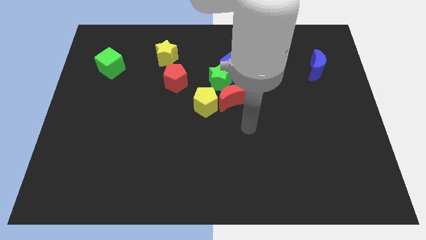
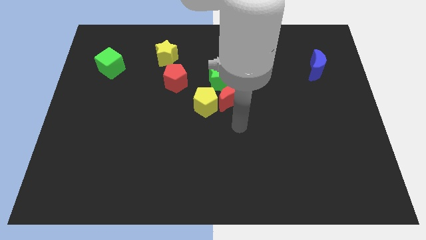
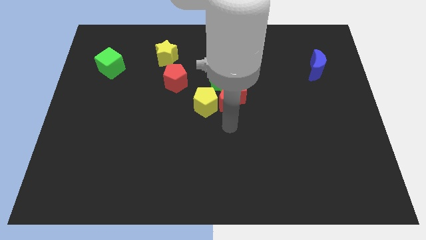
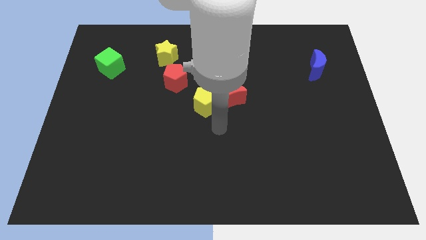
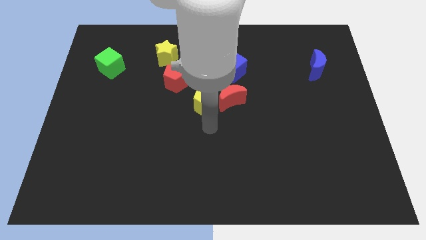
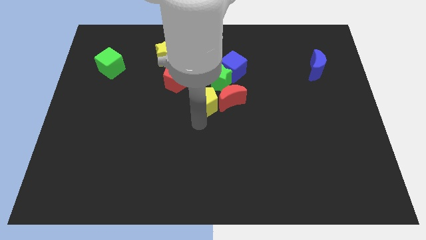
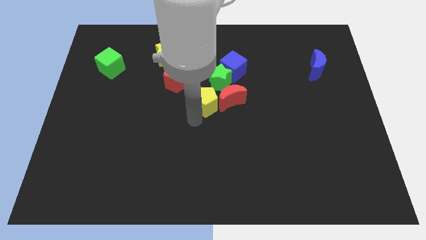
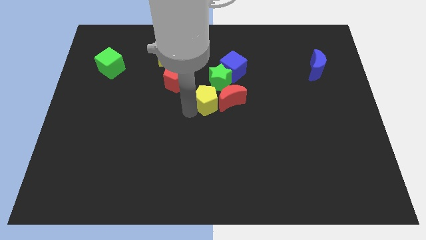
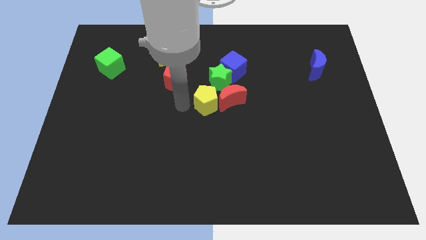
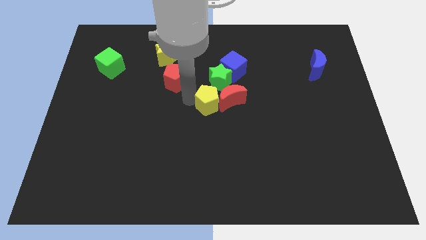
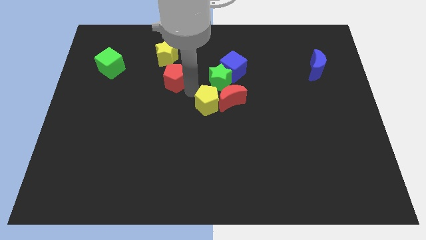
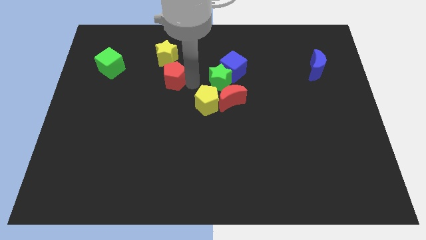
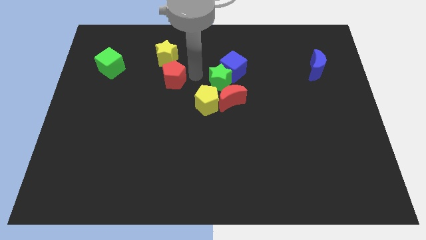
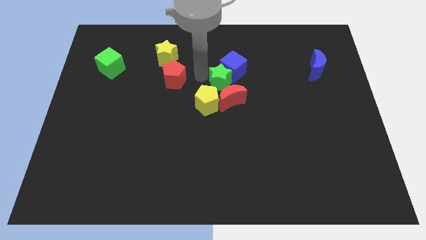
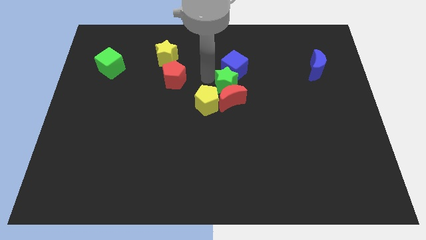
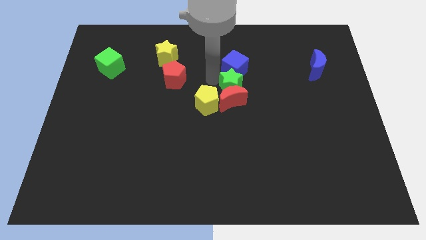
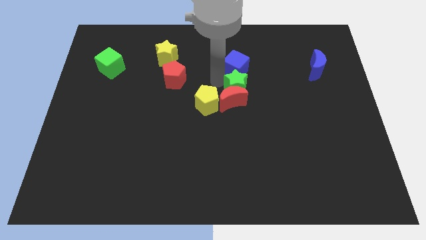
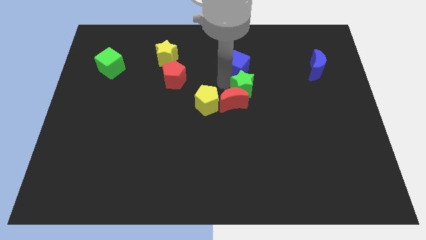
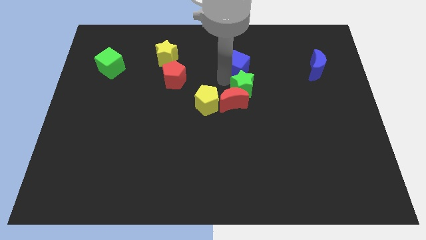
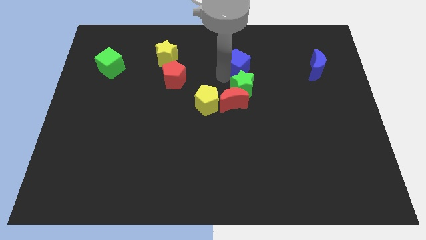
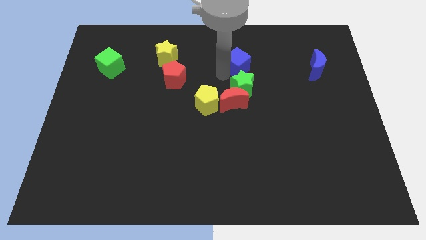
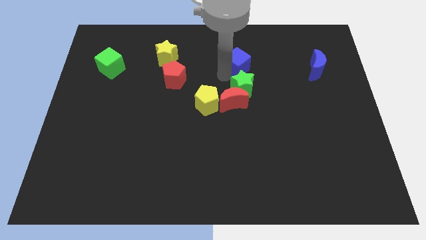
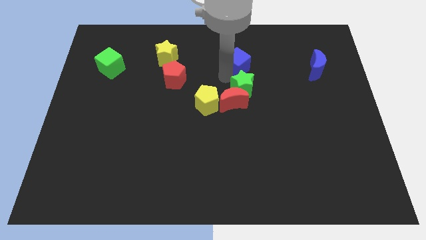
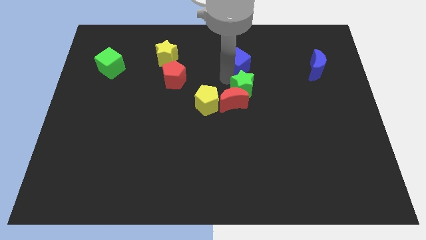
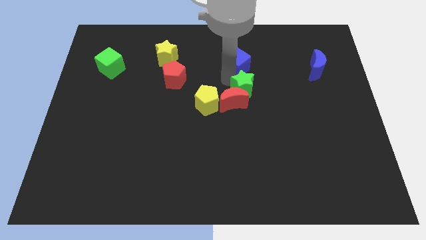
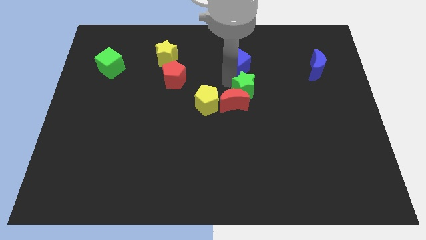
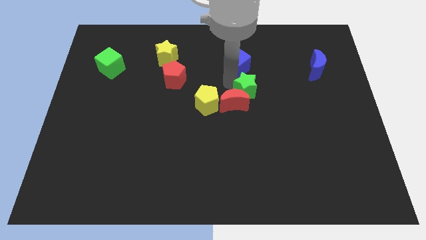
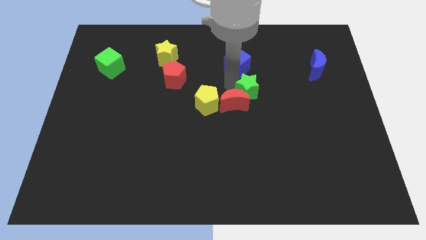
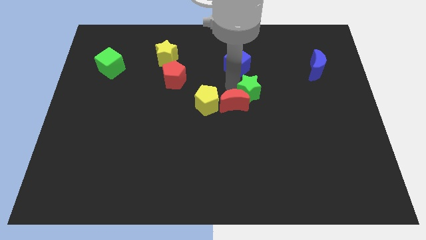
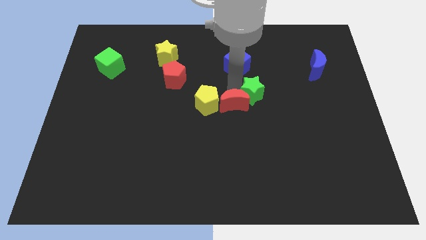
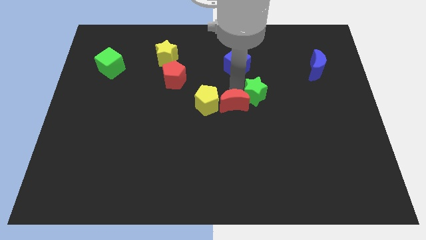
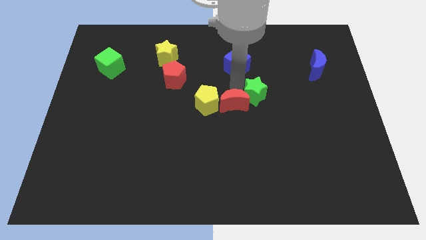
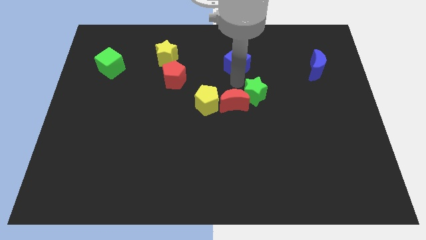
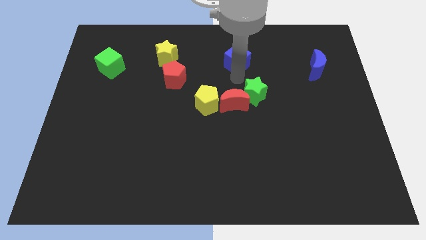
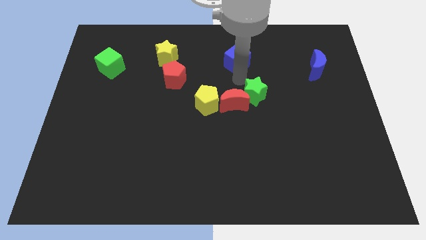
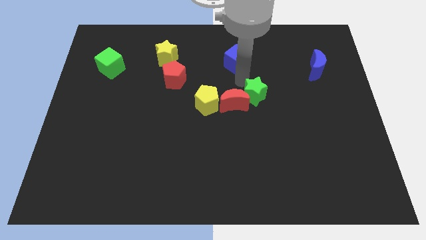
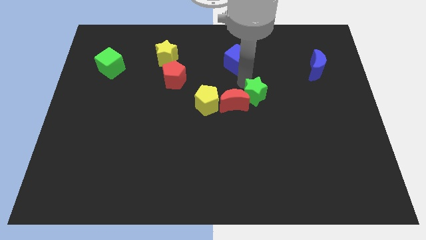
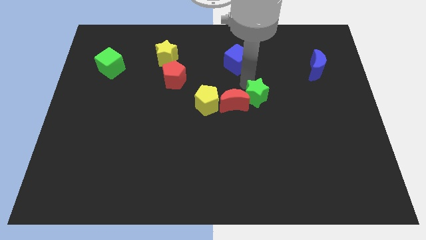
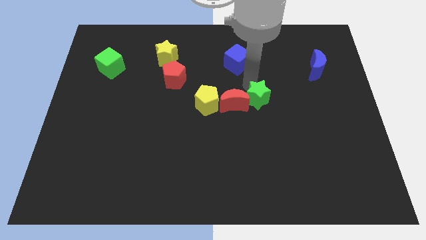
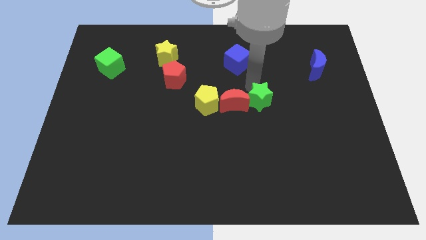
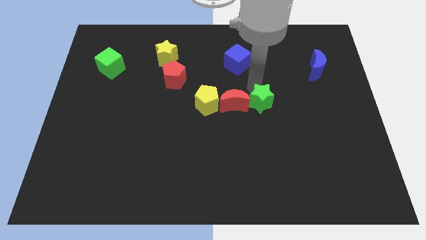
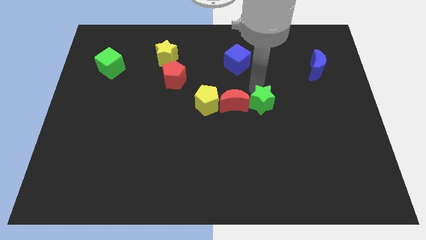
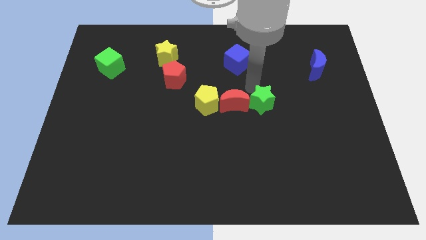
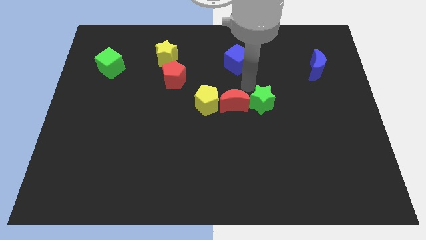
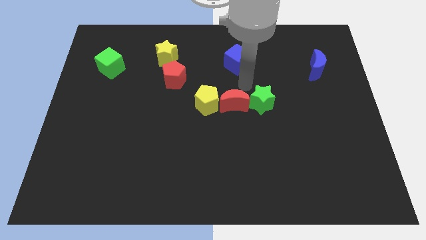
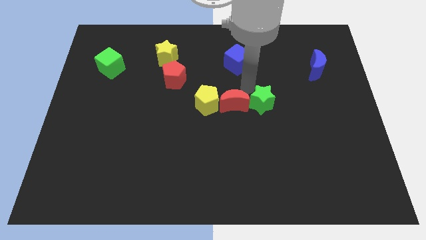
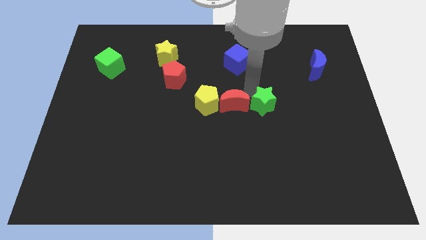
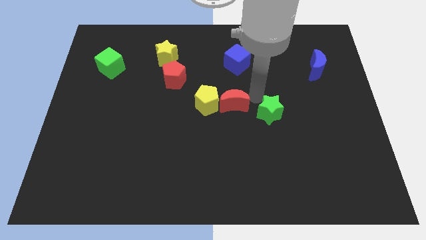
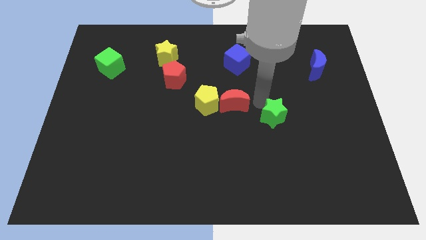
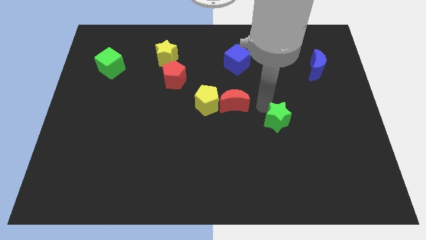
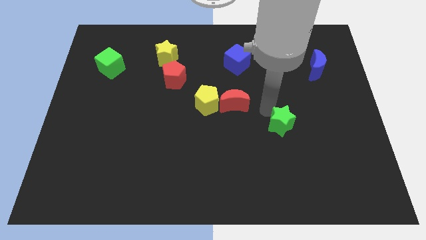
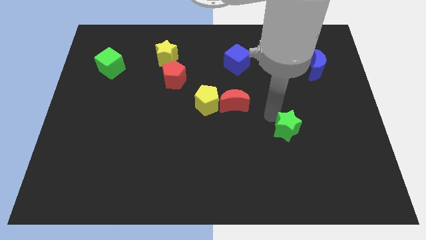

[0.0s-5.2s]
move the green star downwards and then right

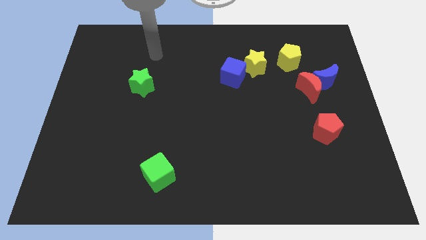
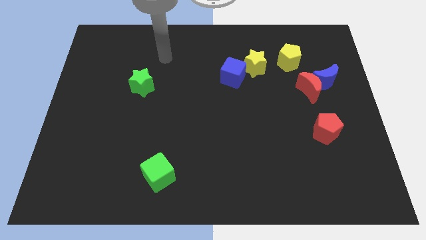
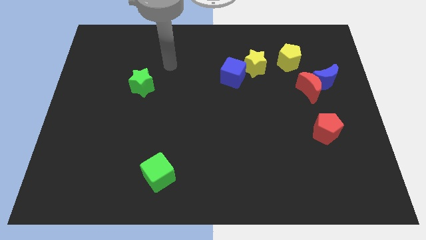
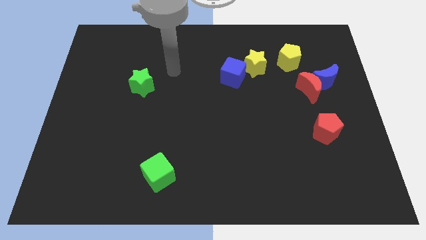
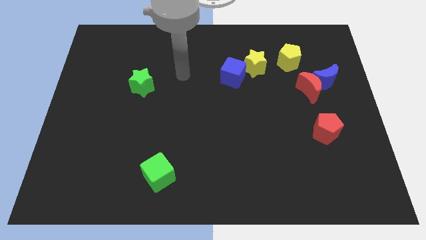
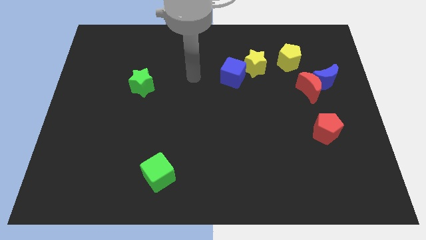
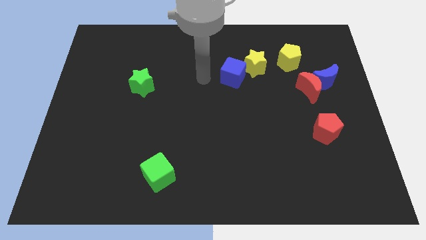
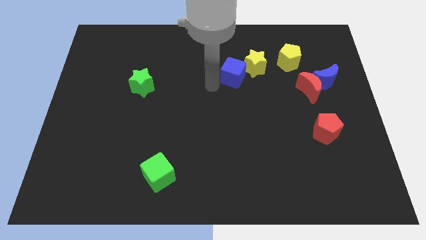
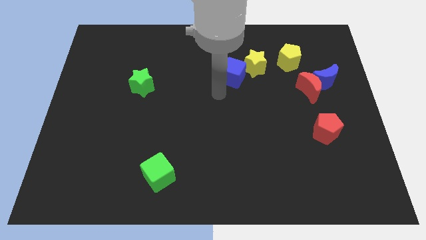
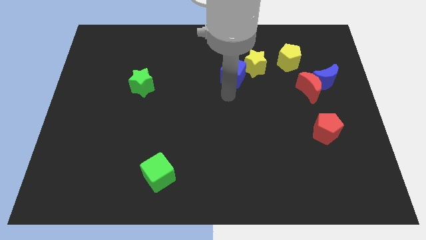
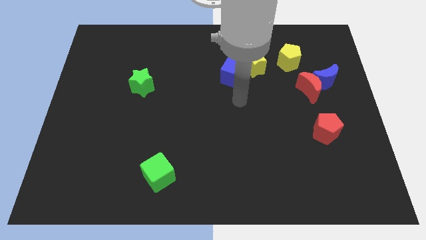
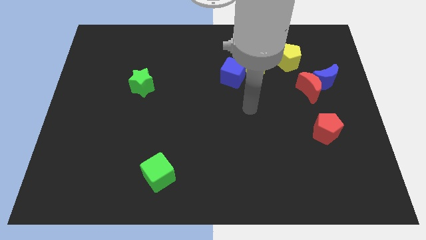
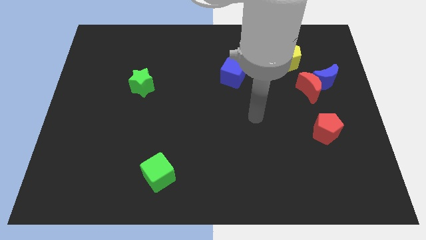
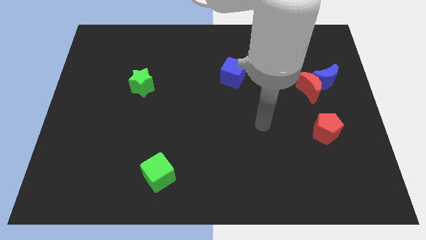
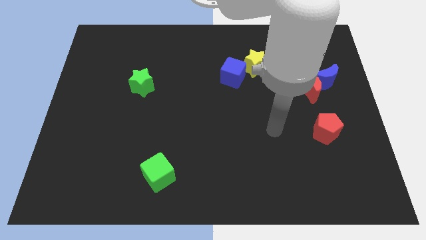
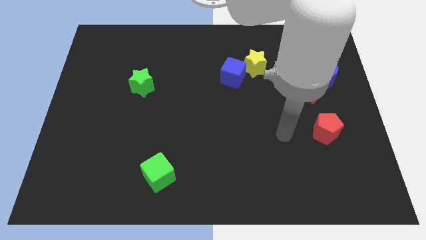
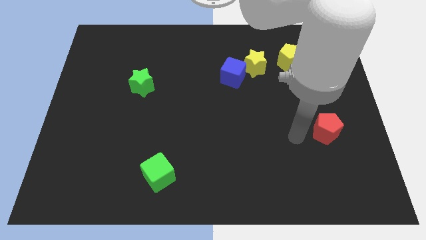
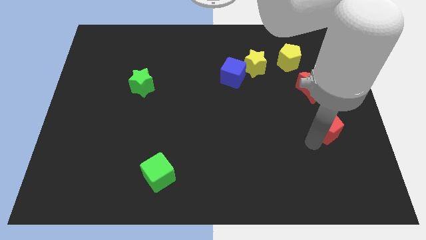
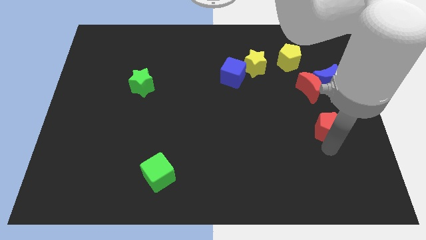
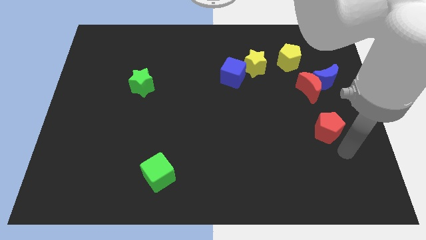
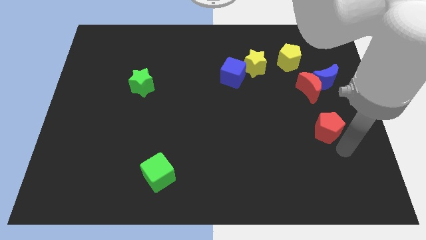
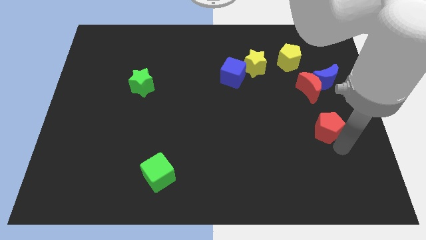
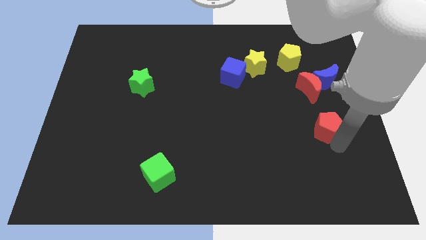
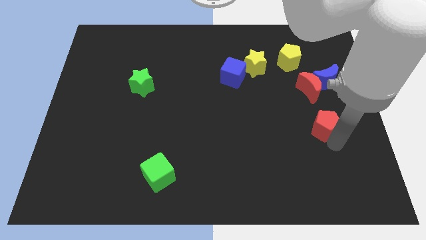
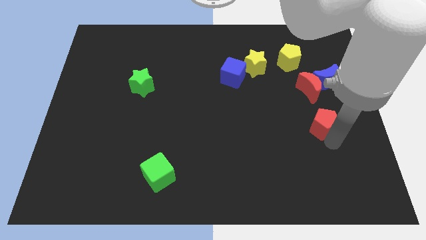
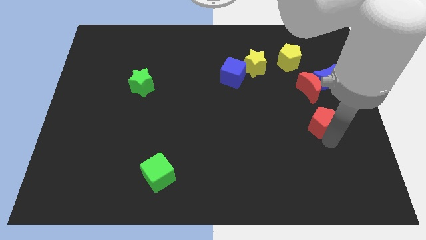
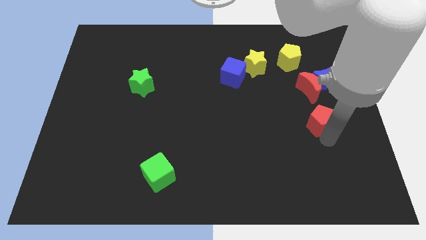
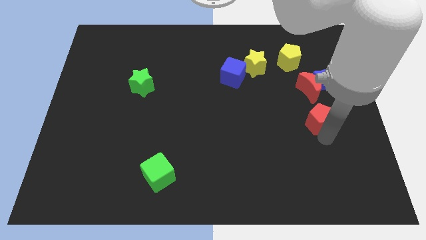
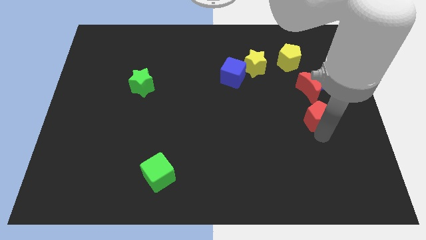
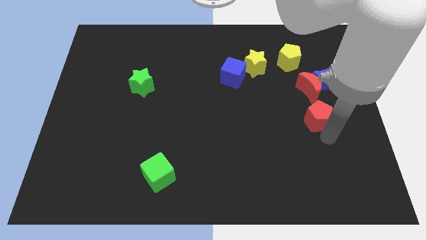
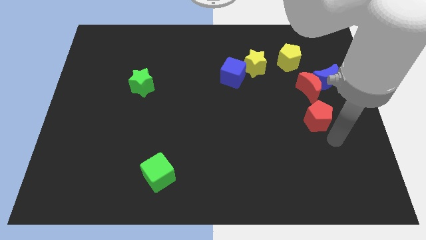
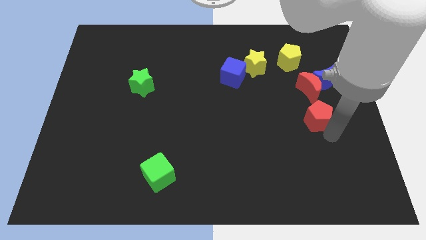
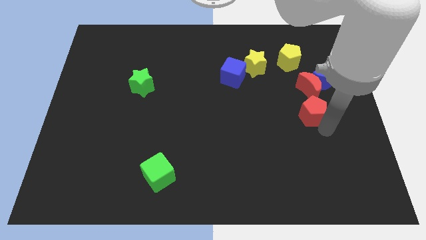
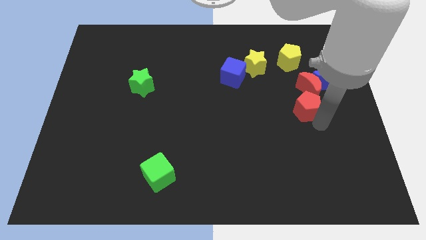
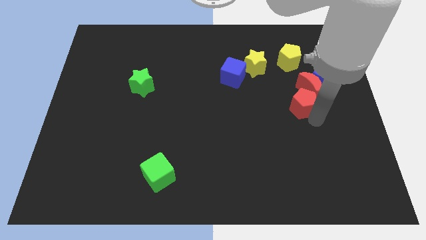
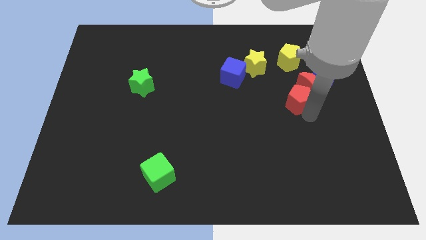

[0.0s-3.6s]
slightly slide the red pentagon upwards
